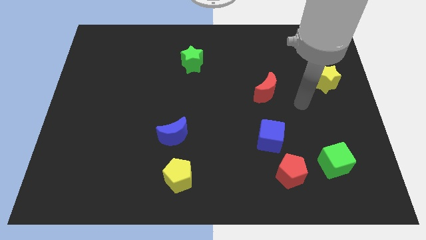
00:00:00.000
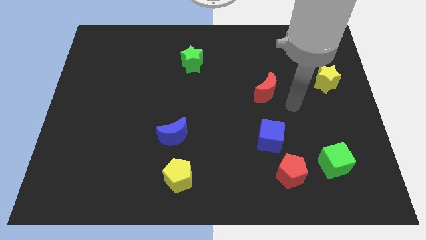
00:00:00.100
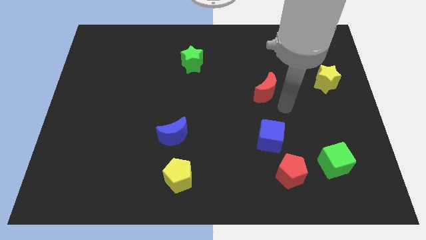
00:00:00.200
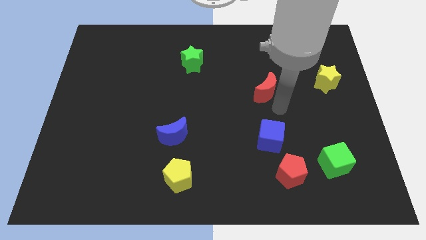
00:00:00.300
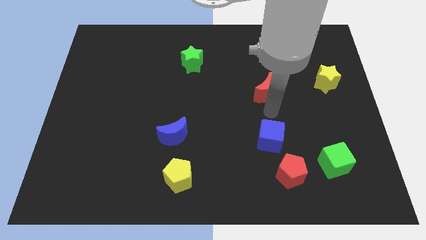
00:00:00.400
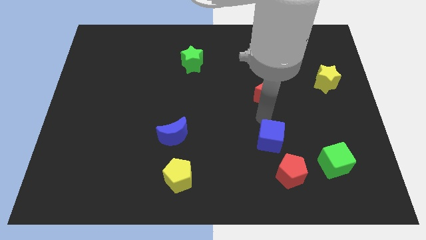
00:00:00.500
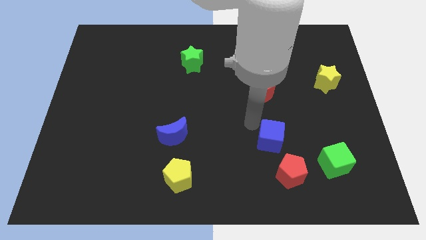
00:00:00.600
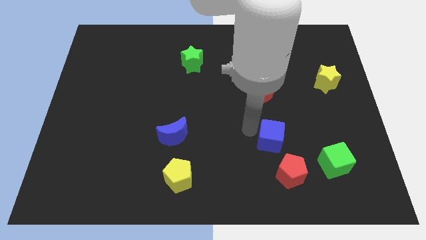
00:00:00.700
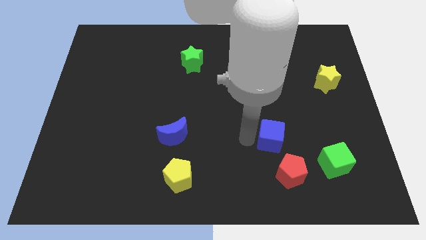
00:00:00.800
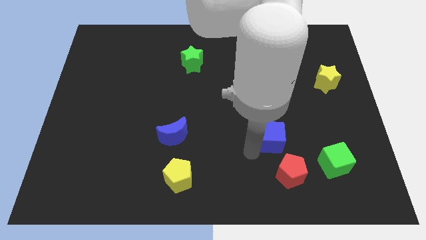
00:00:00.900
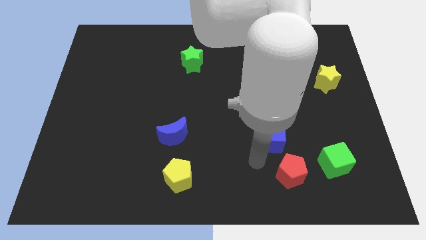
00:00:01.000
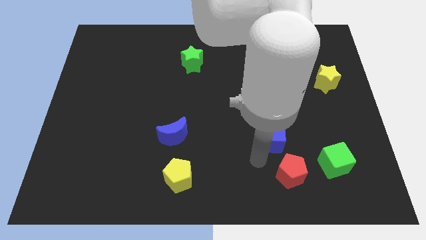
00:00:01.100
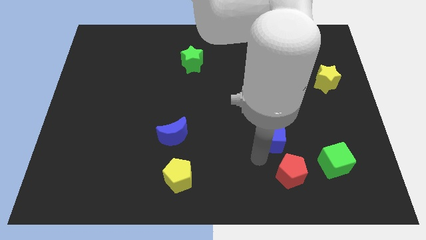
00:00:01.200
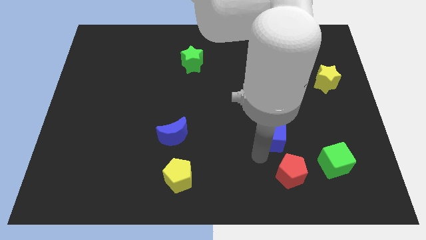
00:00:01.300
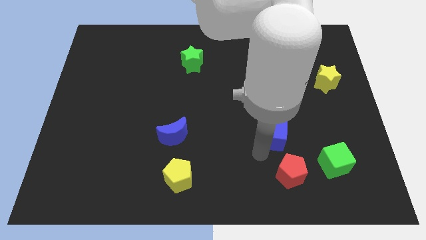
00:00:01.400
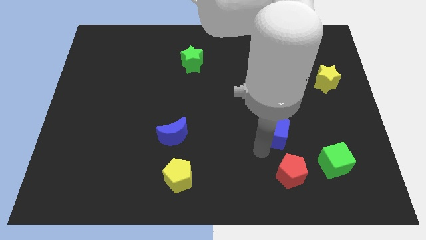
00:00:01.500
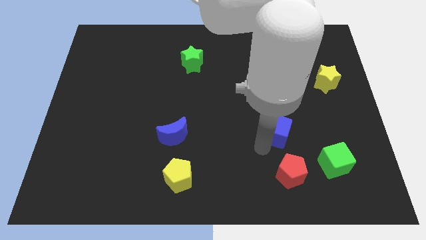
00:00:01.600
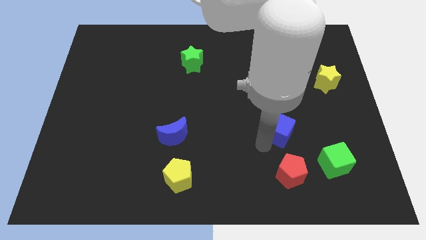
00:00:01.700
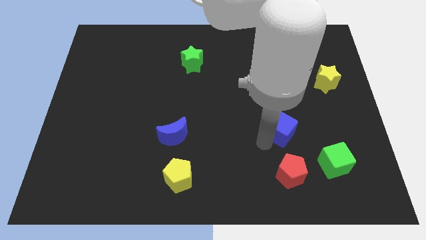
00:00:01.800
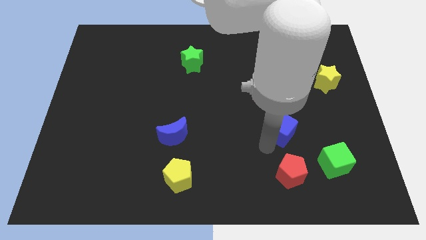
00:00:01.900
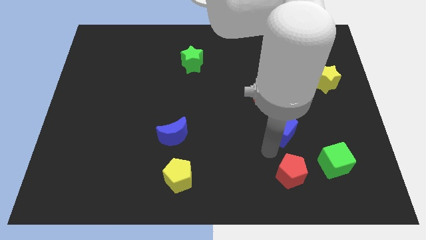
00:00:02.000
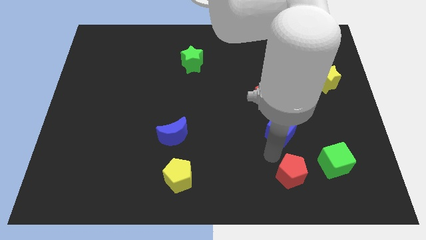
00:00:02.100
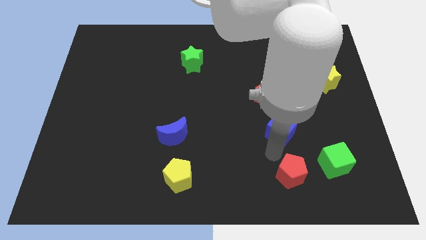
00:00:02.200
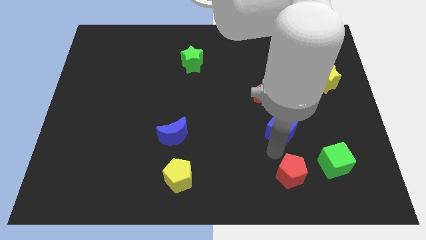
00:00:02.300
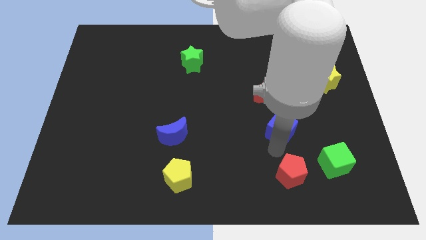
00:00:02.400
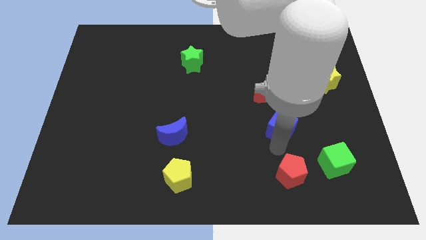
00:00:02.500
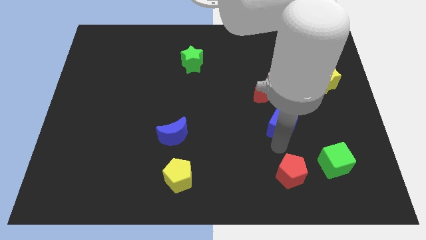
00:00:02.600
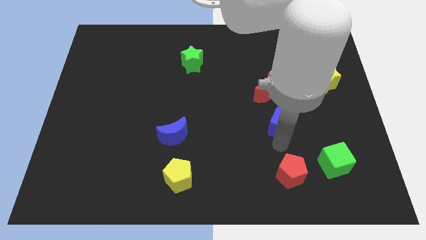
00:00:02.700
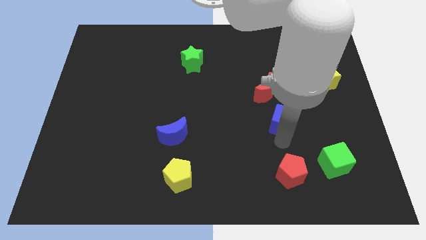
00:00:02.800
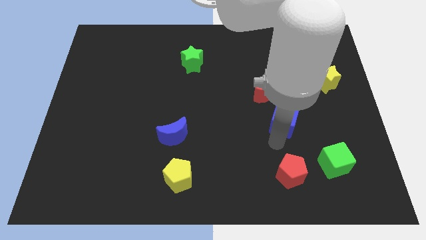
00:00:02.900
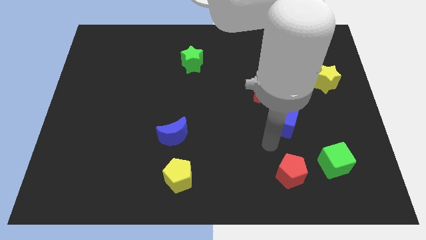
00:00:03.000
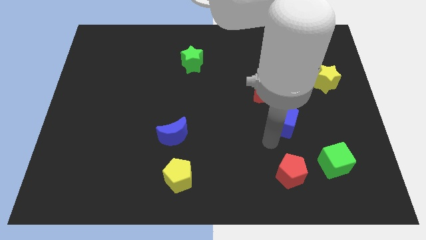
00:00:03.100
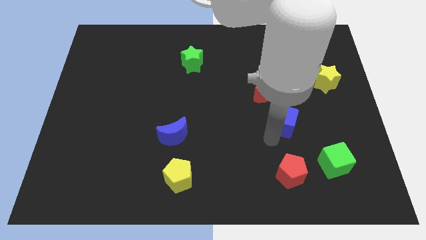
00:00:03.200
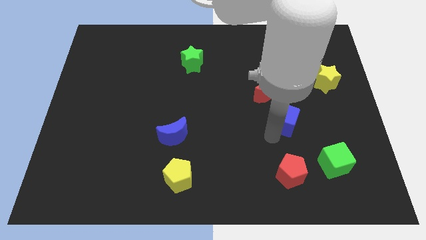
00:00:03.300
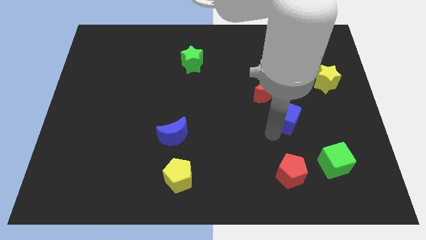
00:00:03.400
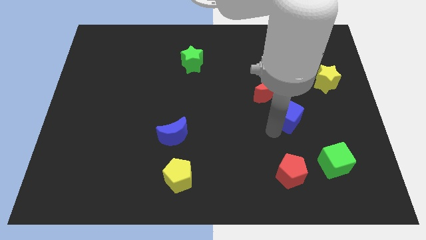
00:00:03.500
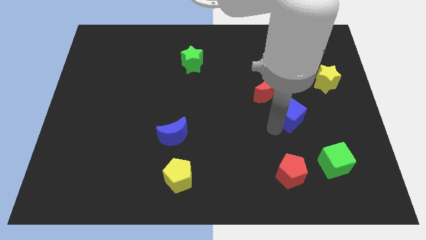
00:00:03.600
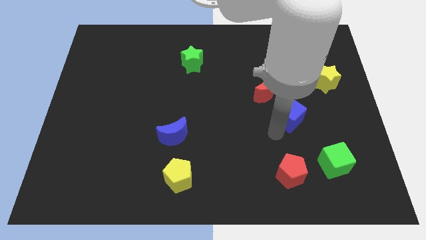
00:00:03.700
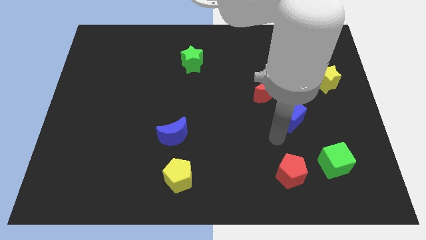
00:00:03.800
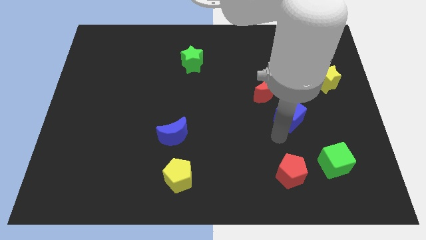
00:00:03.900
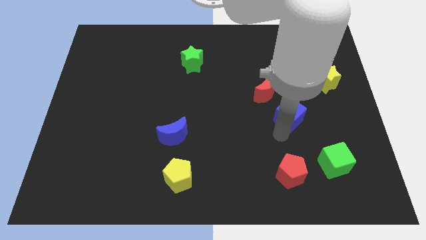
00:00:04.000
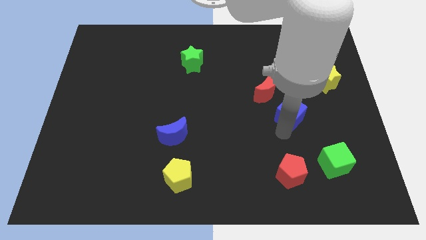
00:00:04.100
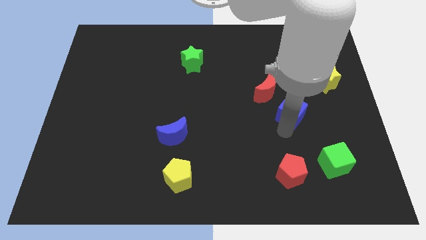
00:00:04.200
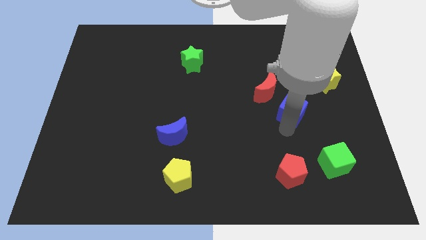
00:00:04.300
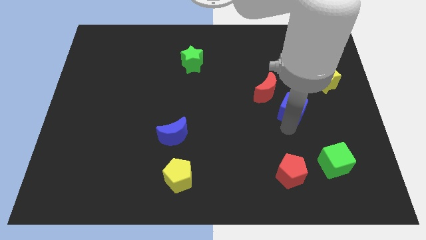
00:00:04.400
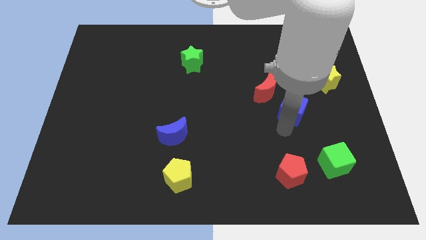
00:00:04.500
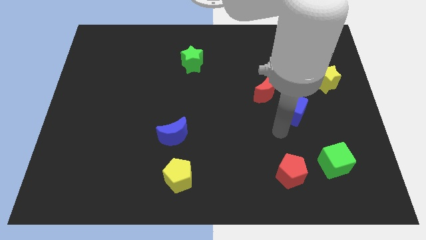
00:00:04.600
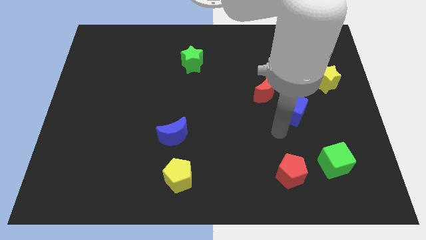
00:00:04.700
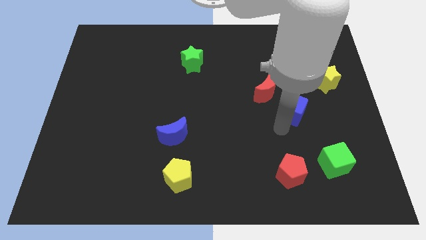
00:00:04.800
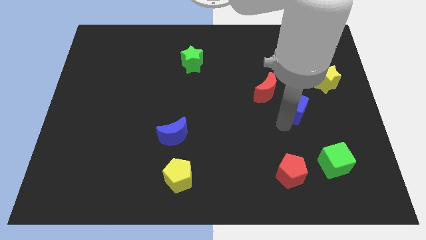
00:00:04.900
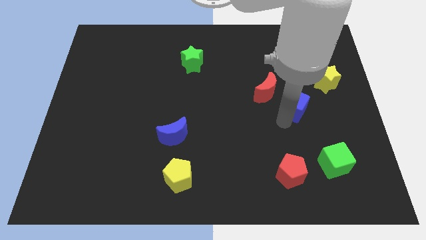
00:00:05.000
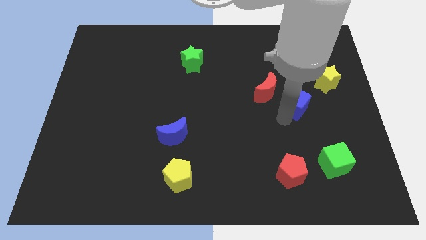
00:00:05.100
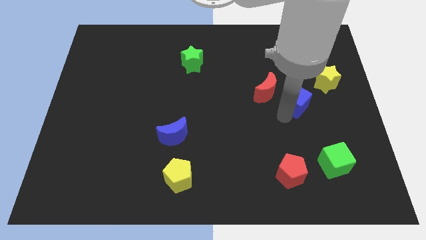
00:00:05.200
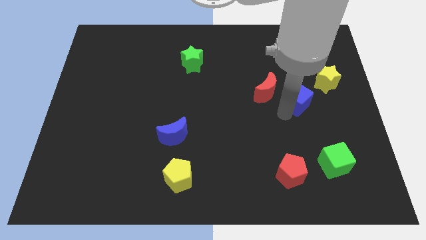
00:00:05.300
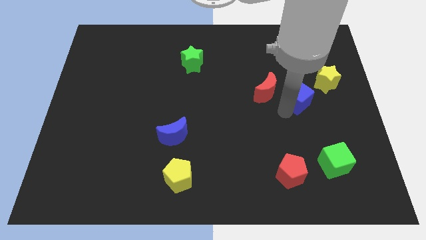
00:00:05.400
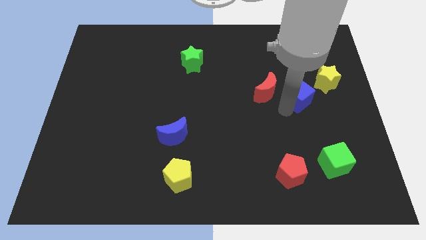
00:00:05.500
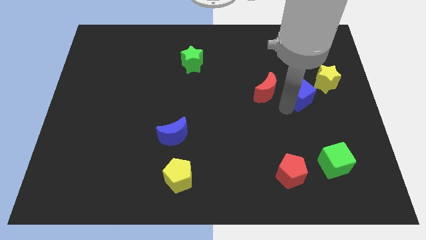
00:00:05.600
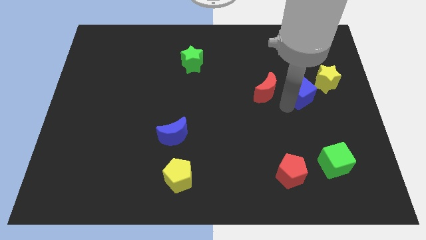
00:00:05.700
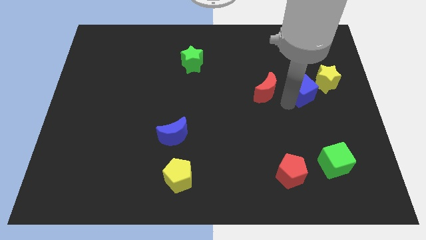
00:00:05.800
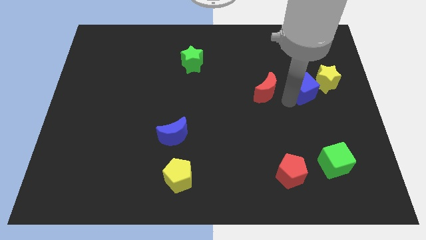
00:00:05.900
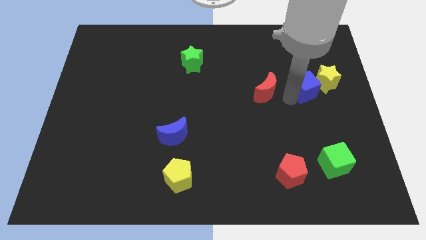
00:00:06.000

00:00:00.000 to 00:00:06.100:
put the blue cube to the yellow star
